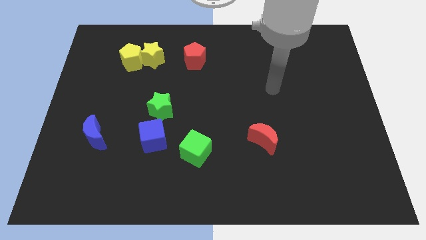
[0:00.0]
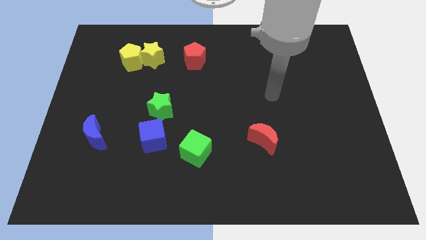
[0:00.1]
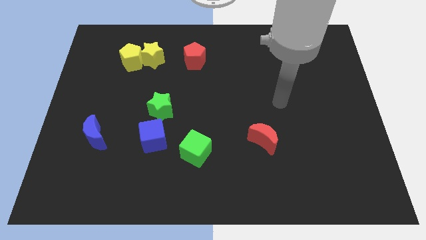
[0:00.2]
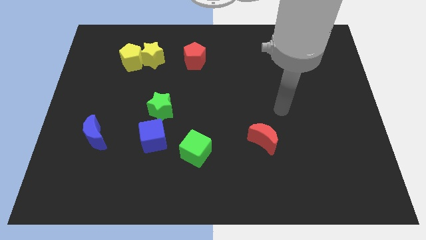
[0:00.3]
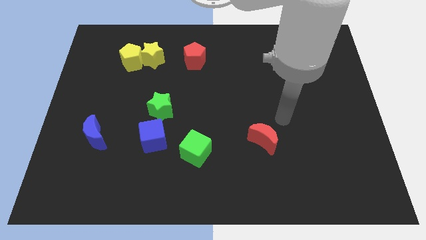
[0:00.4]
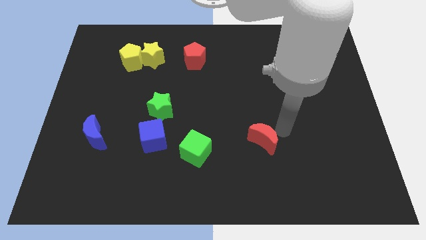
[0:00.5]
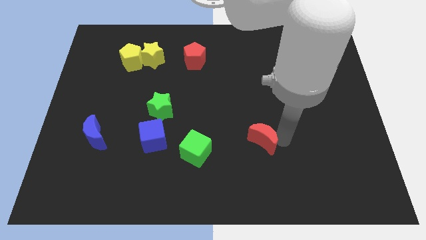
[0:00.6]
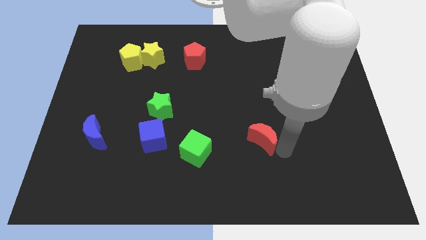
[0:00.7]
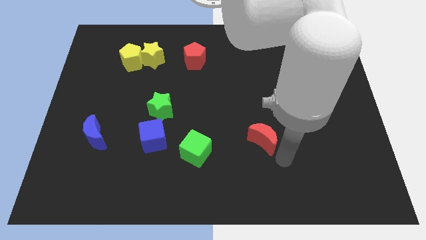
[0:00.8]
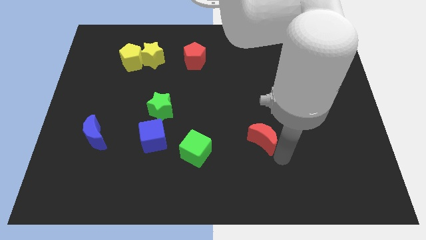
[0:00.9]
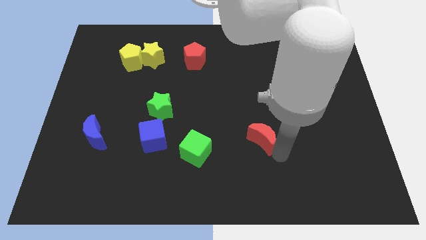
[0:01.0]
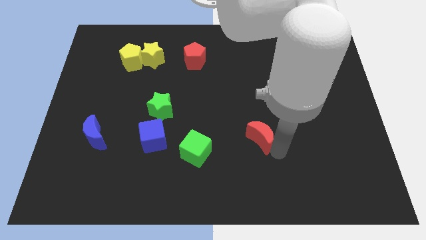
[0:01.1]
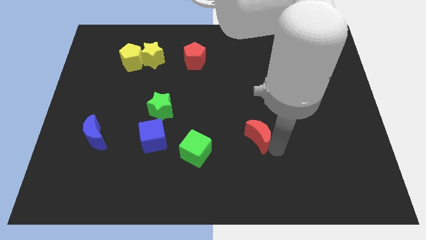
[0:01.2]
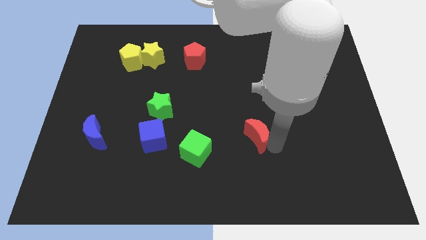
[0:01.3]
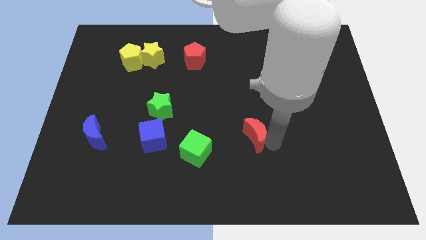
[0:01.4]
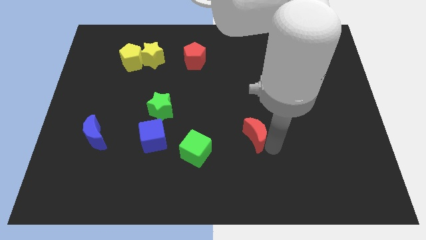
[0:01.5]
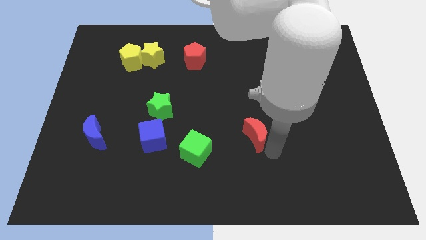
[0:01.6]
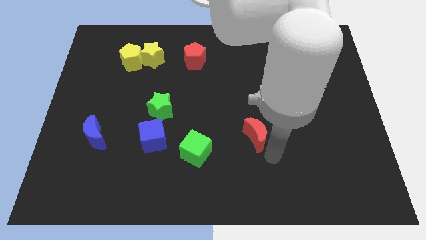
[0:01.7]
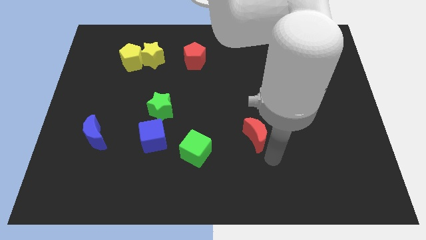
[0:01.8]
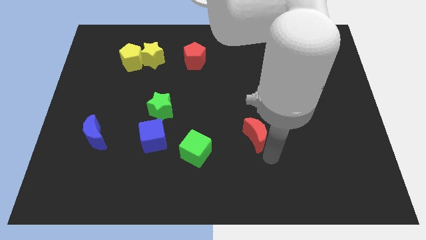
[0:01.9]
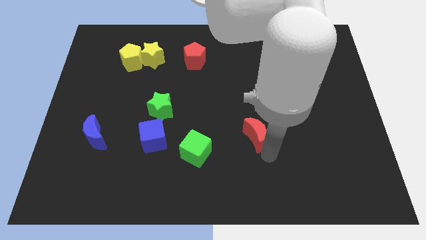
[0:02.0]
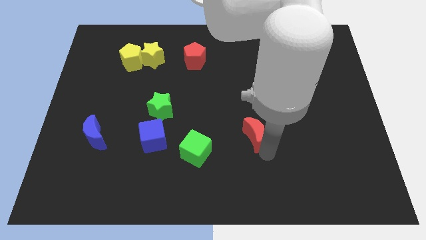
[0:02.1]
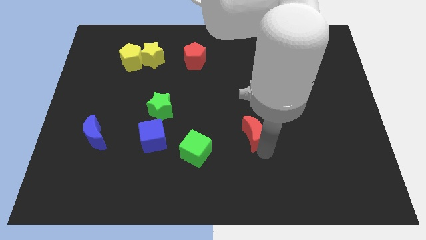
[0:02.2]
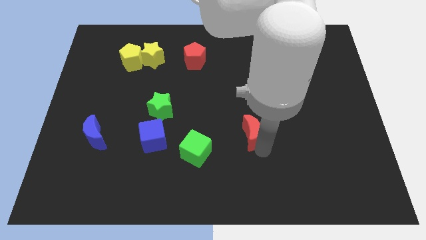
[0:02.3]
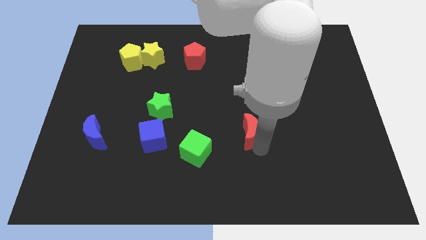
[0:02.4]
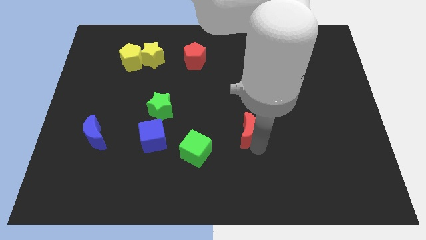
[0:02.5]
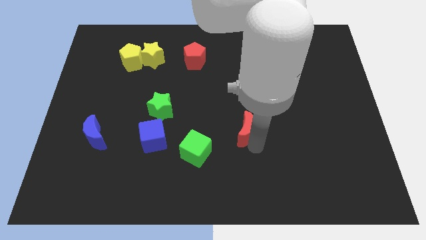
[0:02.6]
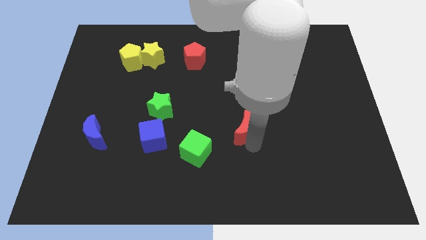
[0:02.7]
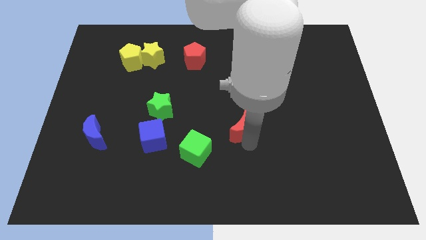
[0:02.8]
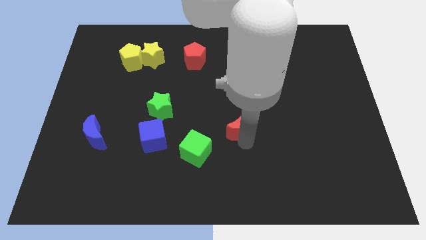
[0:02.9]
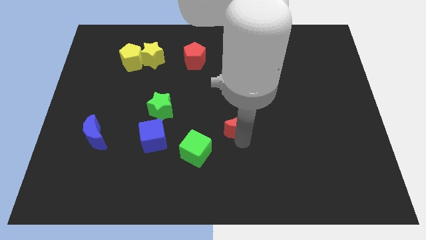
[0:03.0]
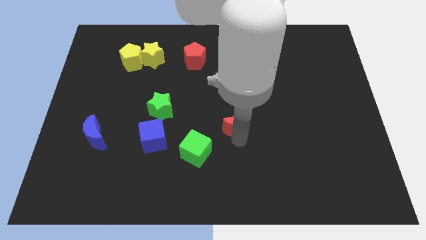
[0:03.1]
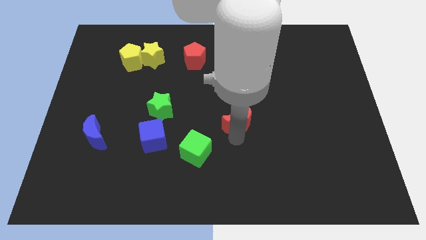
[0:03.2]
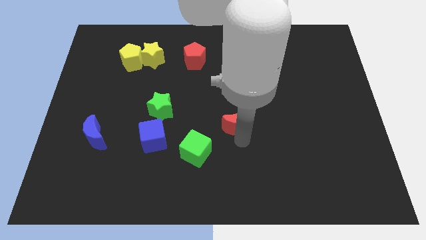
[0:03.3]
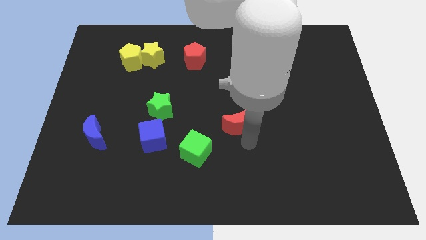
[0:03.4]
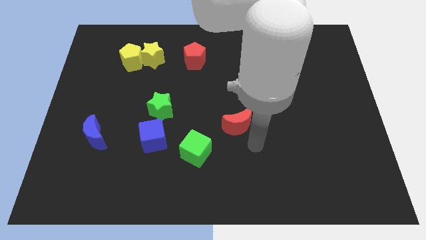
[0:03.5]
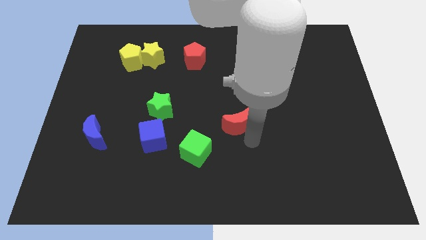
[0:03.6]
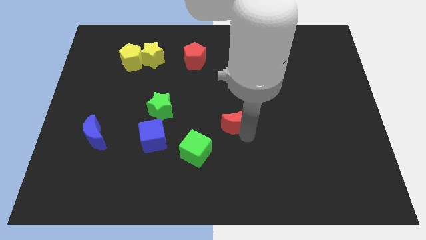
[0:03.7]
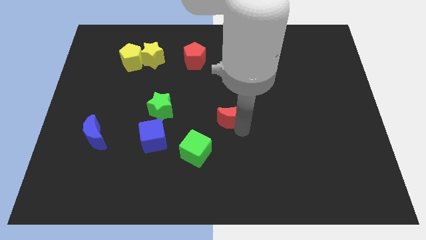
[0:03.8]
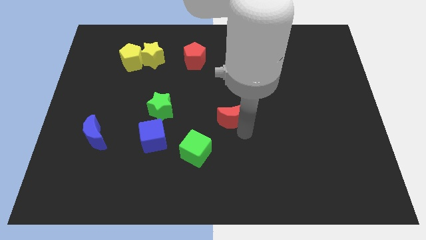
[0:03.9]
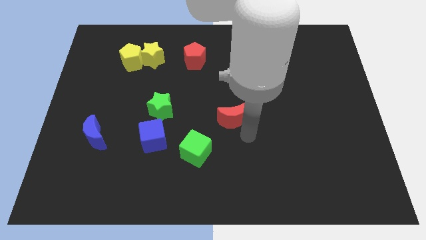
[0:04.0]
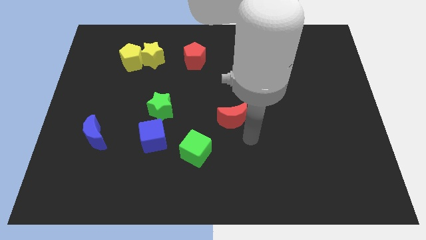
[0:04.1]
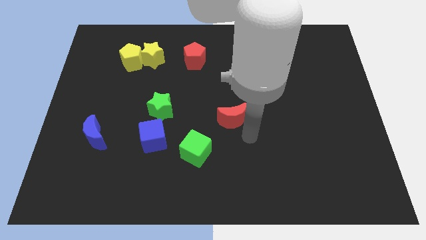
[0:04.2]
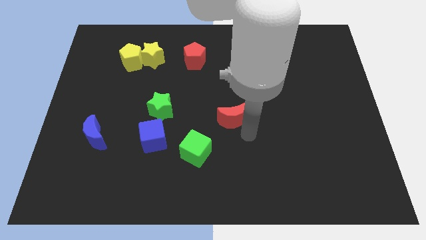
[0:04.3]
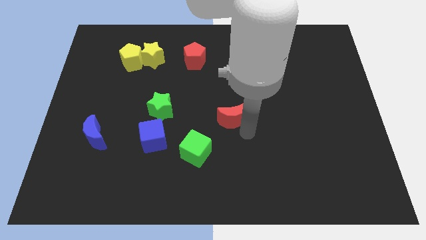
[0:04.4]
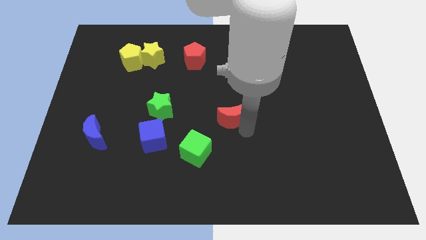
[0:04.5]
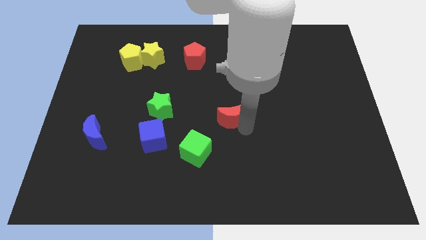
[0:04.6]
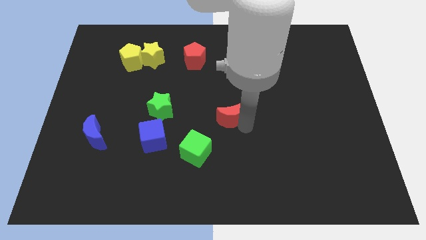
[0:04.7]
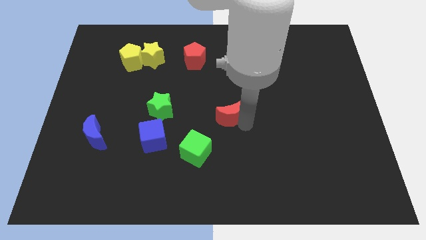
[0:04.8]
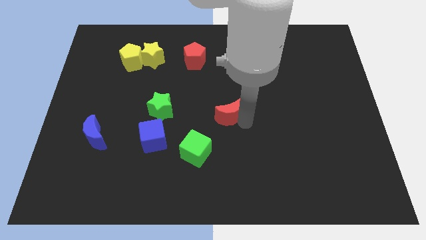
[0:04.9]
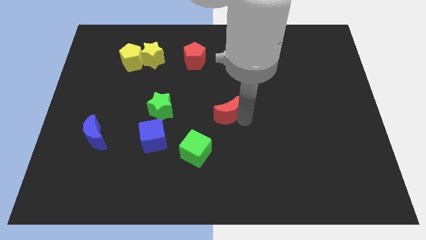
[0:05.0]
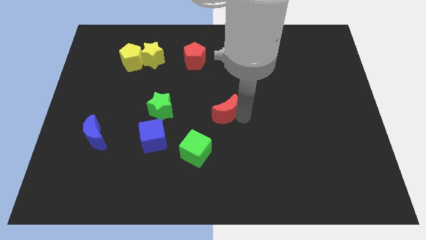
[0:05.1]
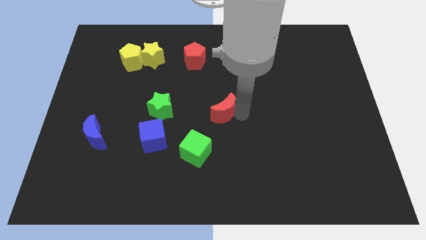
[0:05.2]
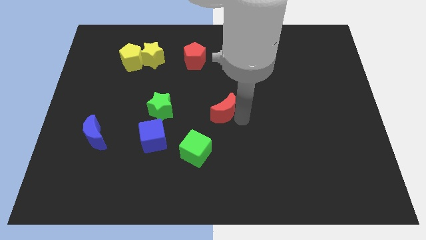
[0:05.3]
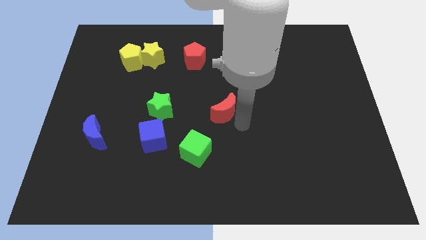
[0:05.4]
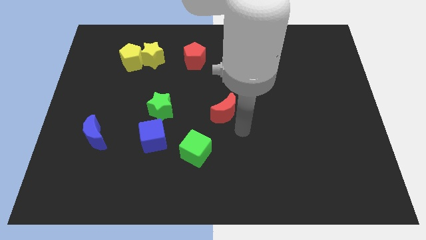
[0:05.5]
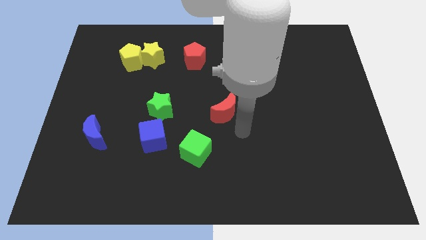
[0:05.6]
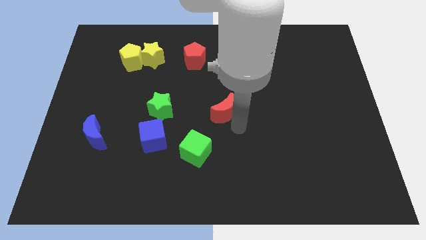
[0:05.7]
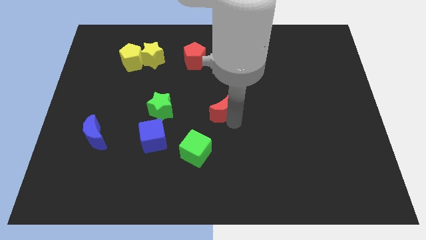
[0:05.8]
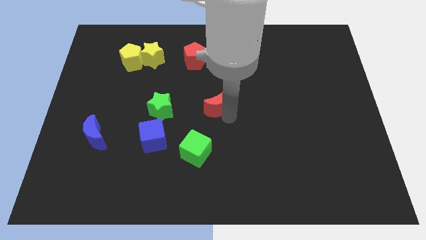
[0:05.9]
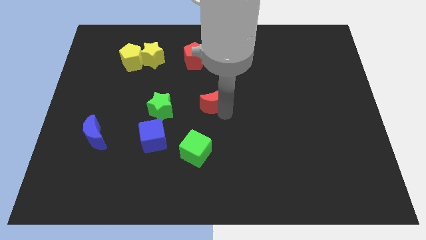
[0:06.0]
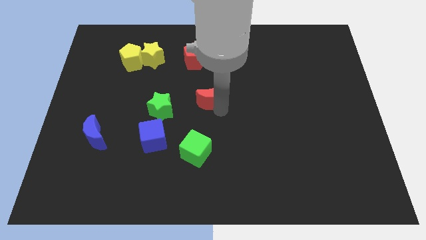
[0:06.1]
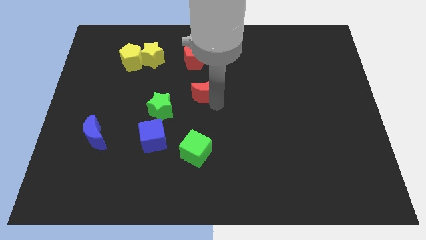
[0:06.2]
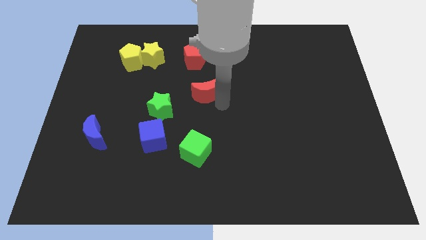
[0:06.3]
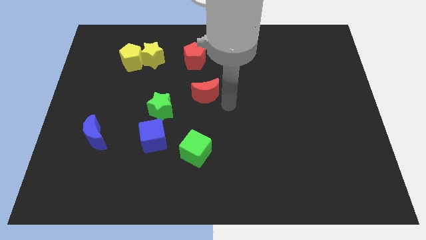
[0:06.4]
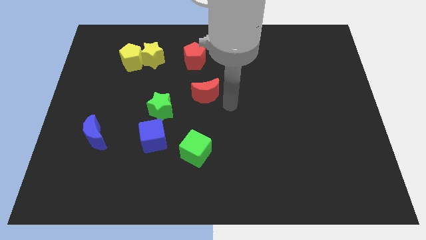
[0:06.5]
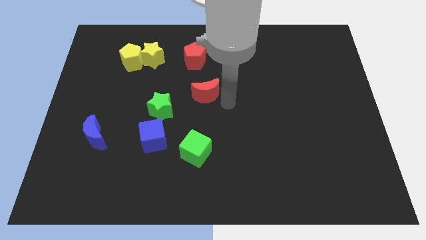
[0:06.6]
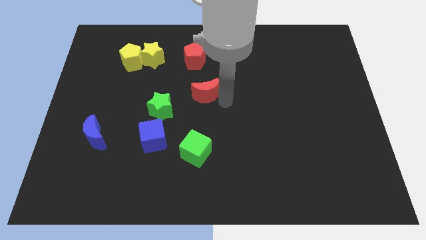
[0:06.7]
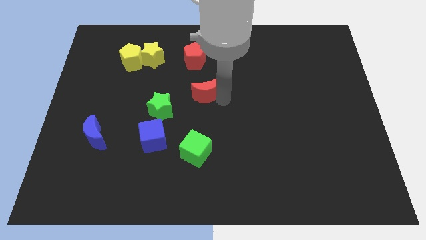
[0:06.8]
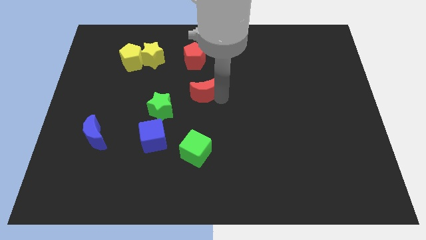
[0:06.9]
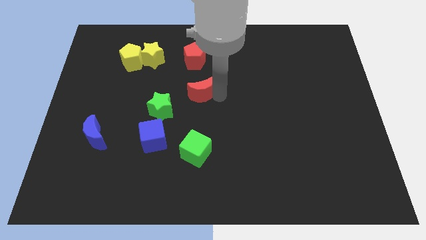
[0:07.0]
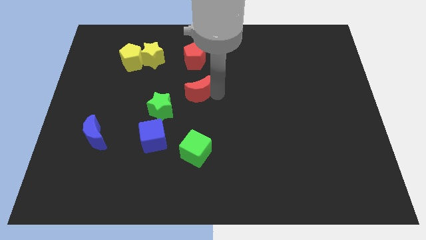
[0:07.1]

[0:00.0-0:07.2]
push the red moon upwards and left

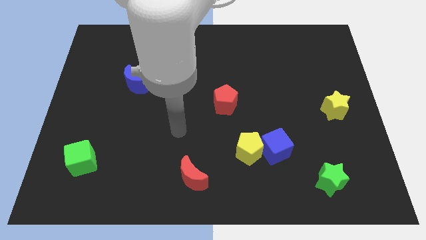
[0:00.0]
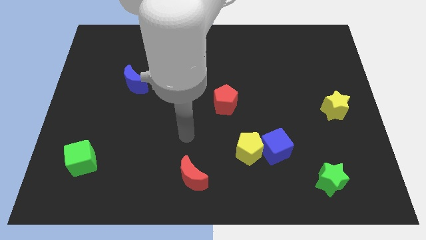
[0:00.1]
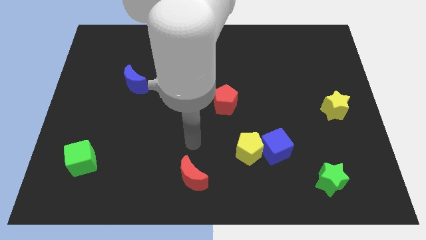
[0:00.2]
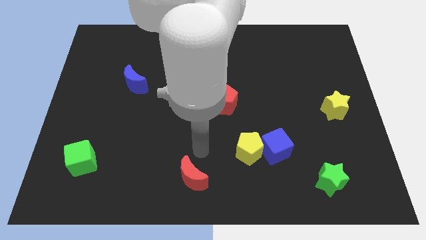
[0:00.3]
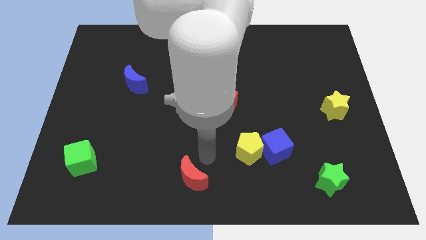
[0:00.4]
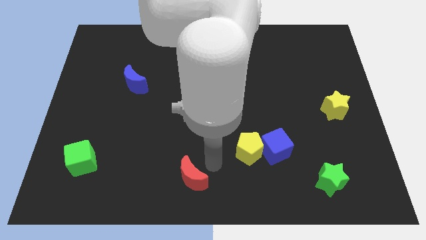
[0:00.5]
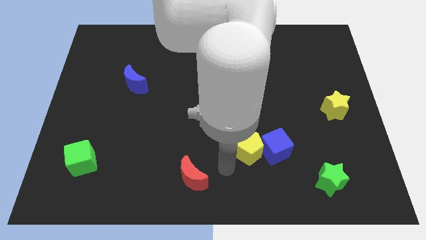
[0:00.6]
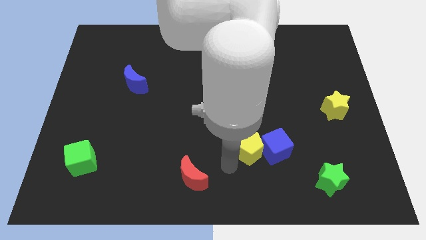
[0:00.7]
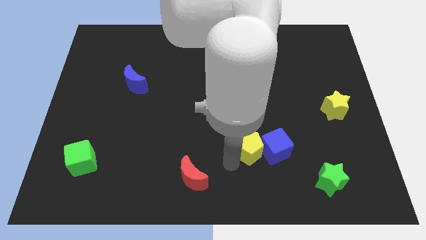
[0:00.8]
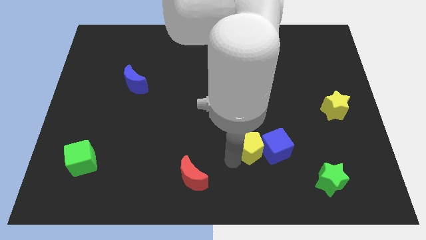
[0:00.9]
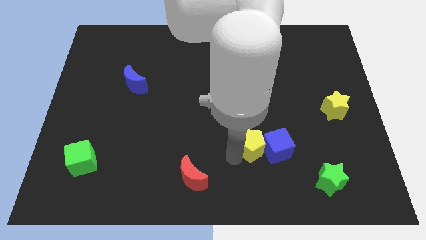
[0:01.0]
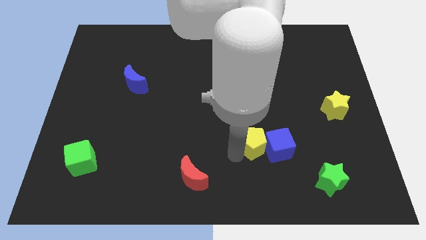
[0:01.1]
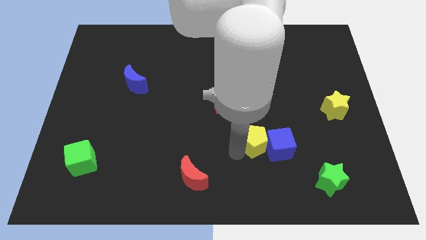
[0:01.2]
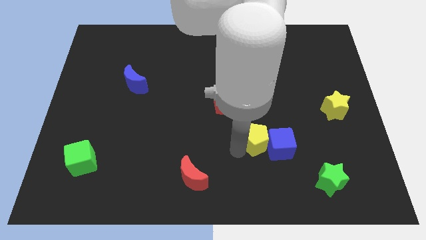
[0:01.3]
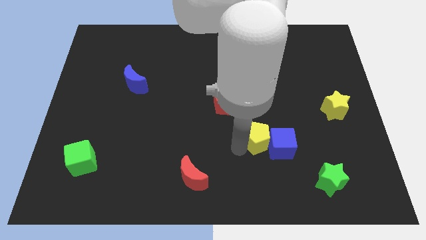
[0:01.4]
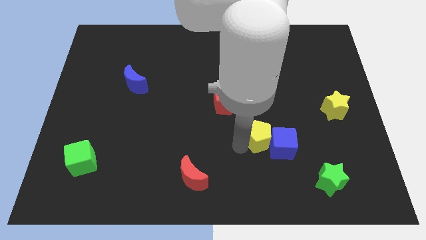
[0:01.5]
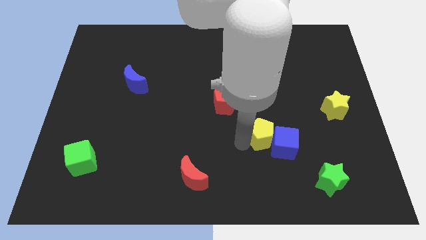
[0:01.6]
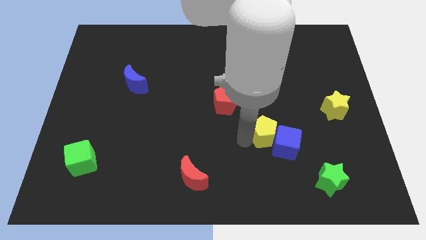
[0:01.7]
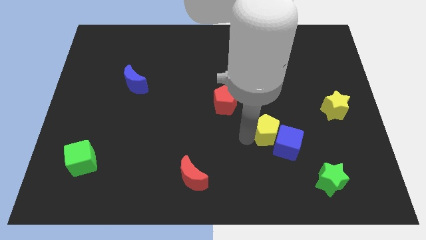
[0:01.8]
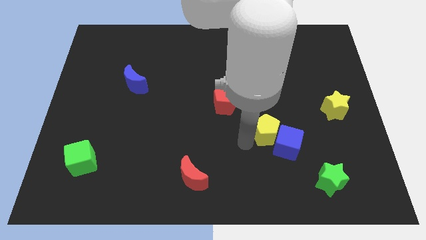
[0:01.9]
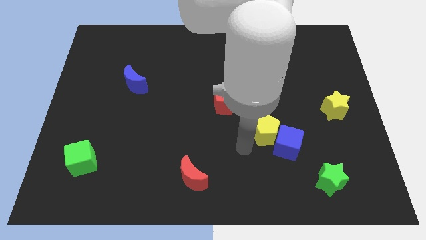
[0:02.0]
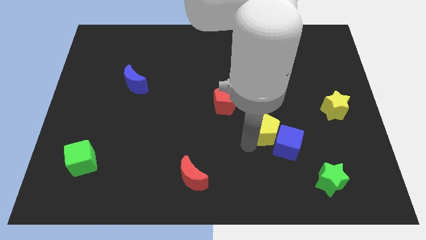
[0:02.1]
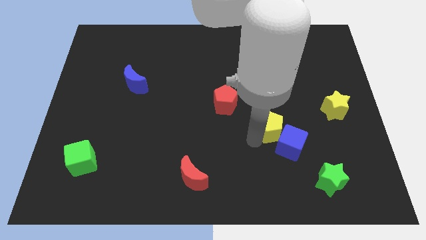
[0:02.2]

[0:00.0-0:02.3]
slightly move the yellow pentagon up and right diagonally
